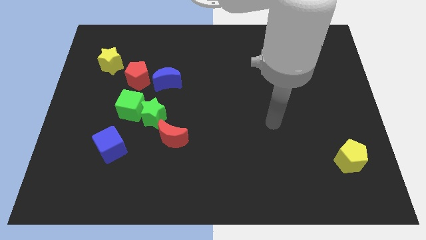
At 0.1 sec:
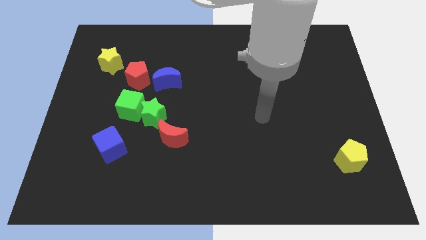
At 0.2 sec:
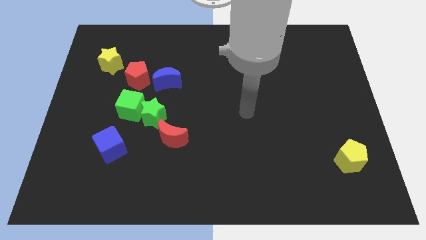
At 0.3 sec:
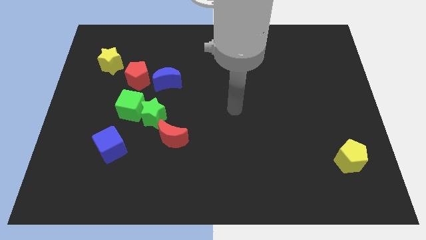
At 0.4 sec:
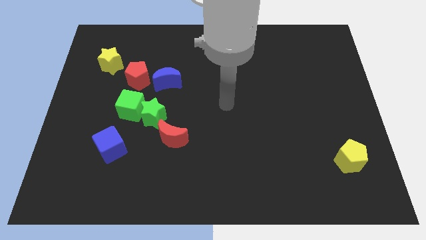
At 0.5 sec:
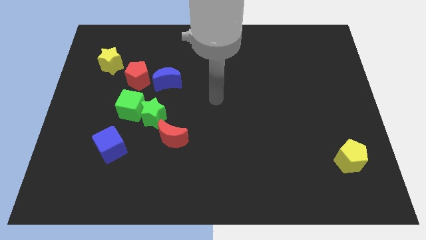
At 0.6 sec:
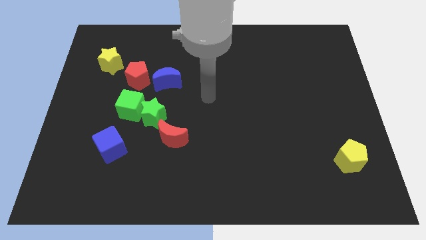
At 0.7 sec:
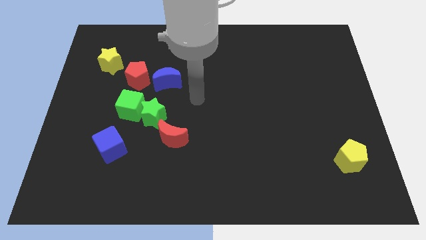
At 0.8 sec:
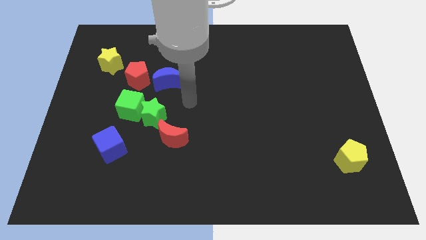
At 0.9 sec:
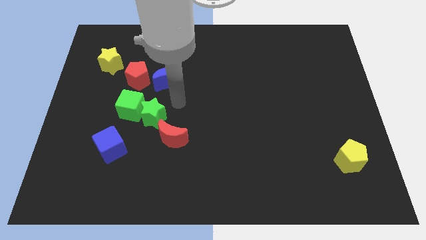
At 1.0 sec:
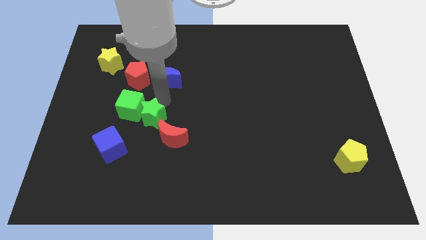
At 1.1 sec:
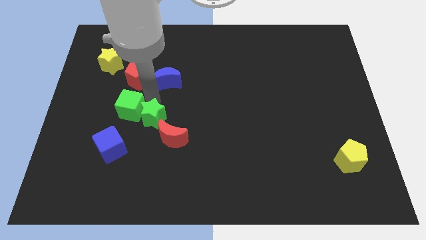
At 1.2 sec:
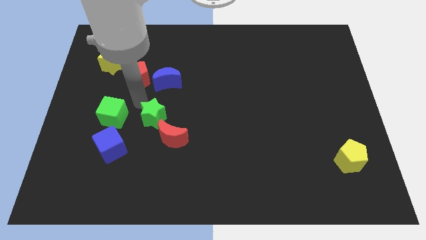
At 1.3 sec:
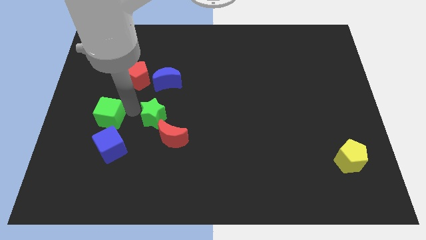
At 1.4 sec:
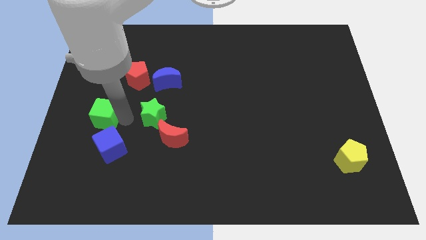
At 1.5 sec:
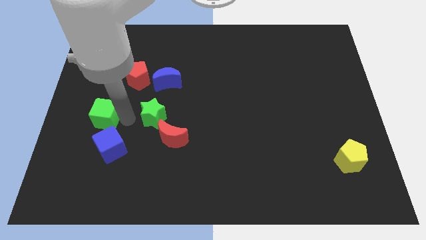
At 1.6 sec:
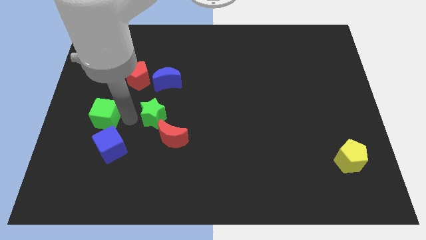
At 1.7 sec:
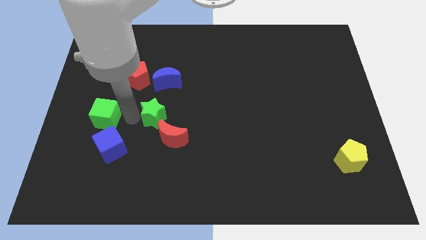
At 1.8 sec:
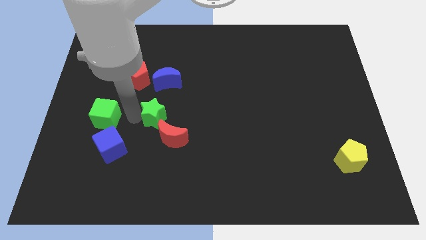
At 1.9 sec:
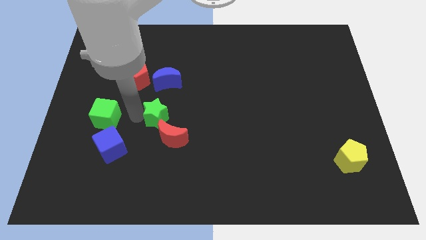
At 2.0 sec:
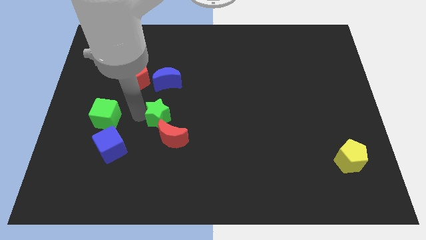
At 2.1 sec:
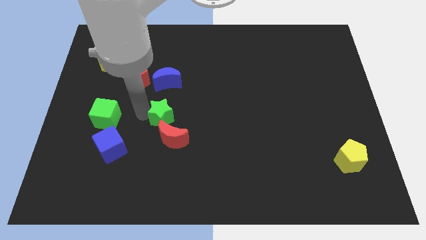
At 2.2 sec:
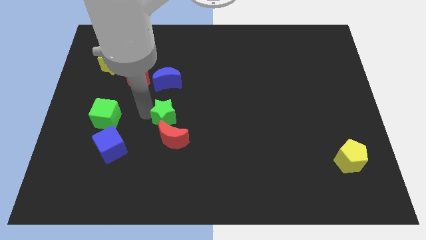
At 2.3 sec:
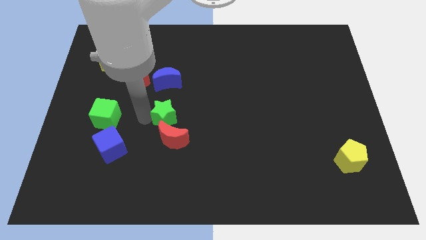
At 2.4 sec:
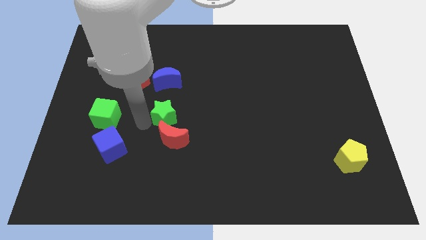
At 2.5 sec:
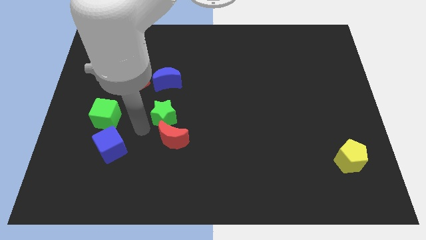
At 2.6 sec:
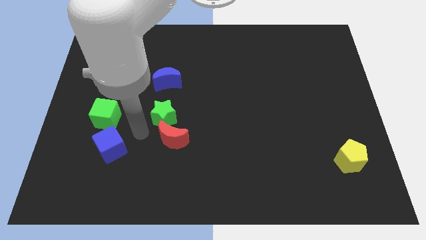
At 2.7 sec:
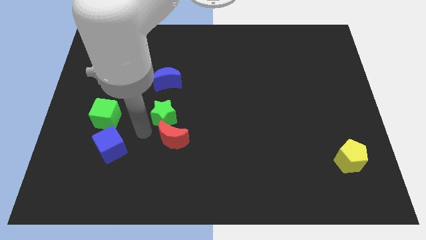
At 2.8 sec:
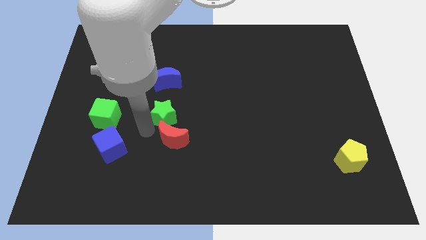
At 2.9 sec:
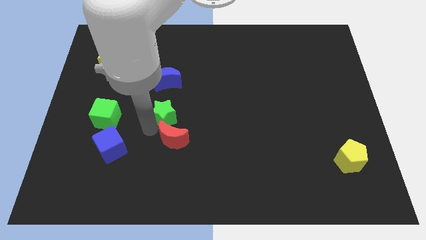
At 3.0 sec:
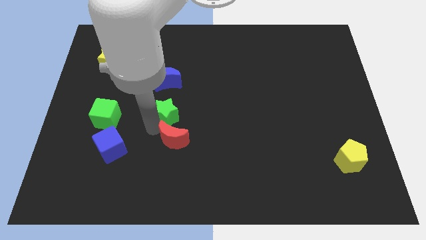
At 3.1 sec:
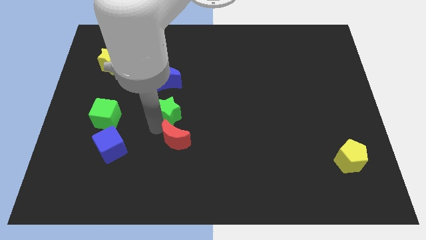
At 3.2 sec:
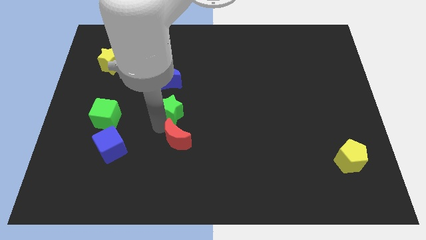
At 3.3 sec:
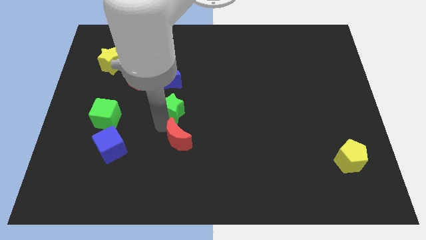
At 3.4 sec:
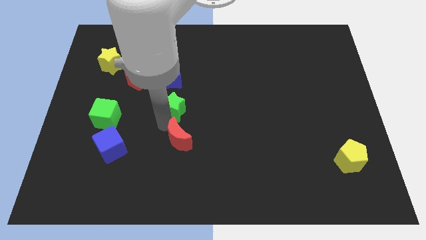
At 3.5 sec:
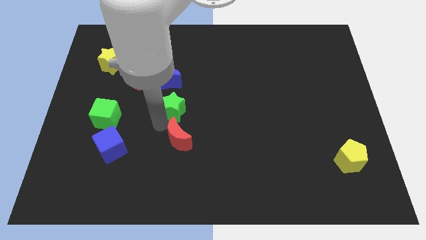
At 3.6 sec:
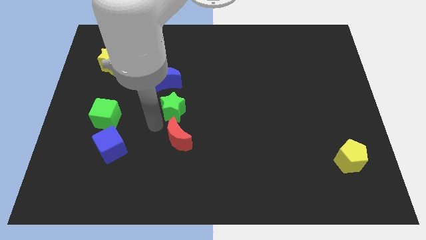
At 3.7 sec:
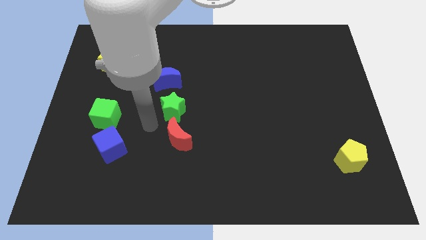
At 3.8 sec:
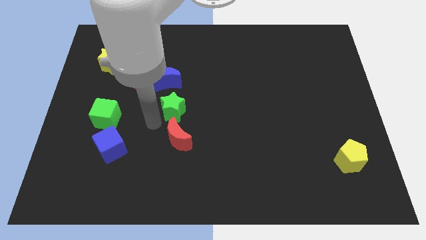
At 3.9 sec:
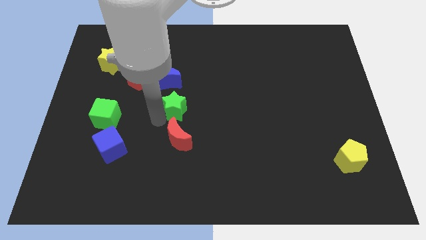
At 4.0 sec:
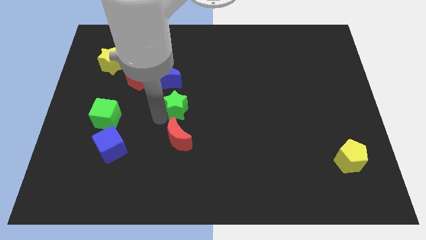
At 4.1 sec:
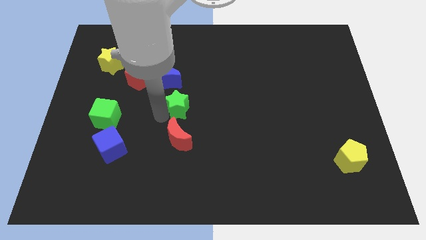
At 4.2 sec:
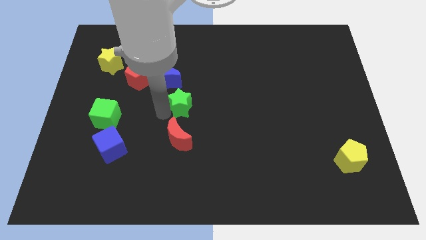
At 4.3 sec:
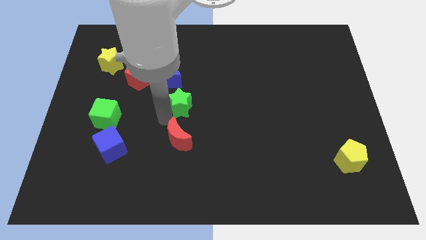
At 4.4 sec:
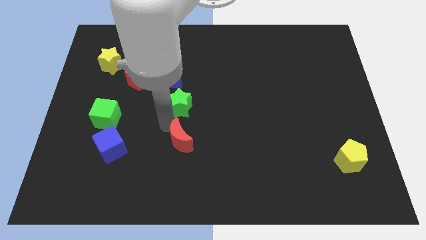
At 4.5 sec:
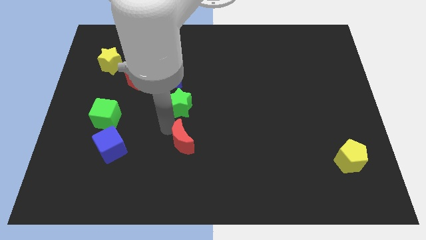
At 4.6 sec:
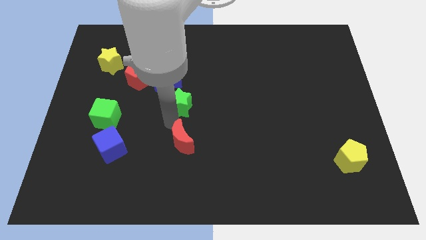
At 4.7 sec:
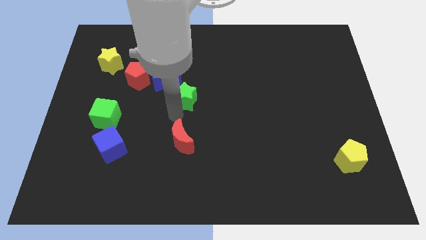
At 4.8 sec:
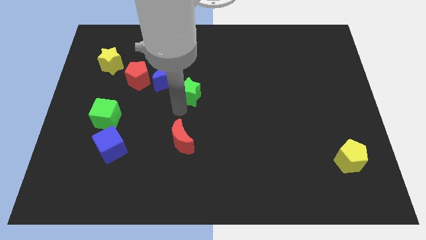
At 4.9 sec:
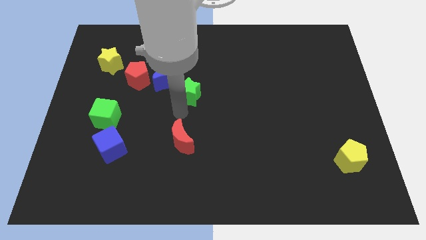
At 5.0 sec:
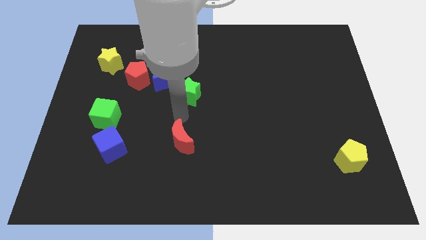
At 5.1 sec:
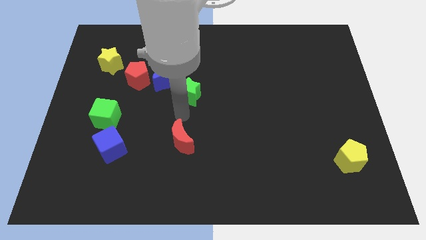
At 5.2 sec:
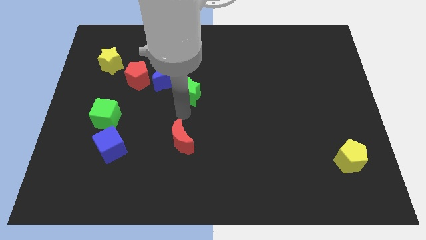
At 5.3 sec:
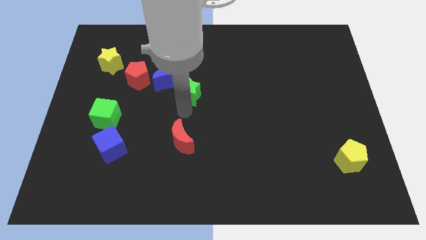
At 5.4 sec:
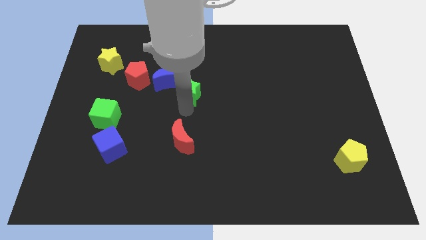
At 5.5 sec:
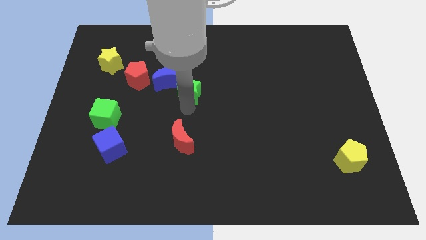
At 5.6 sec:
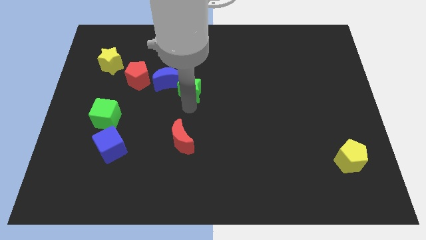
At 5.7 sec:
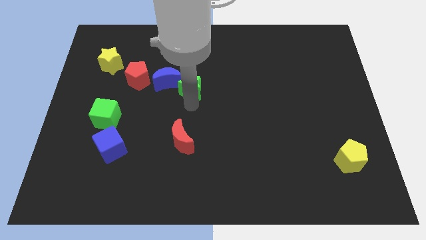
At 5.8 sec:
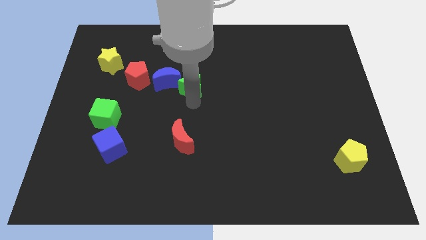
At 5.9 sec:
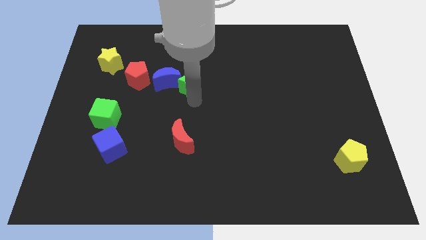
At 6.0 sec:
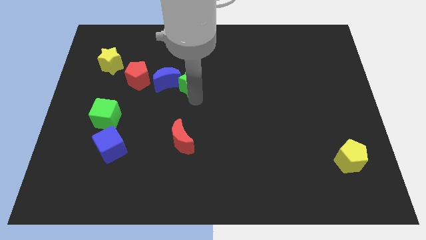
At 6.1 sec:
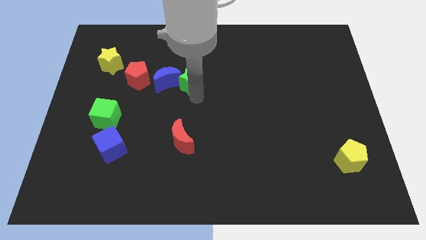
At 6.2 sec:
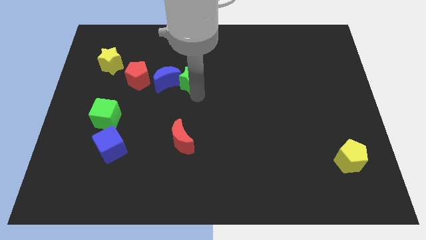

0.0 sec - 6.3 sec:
move the green star slightly up

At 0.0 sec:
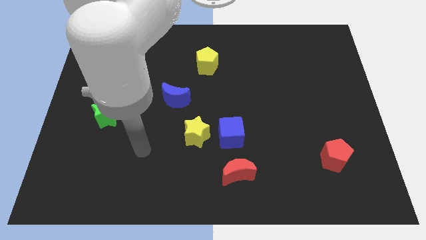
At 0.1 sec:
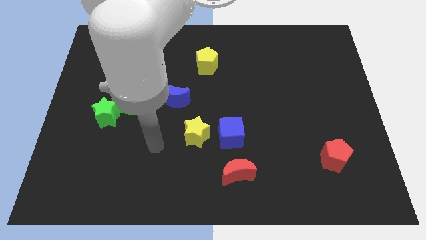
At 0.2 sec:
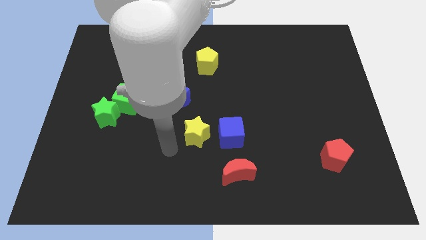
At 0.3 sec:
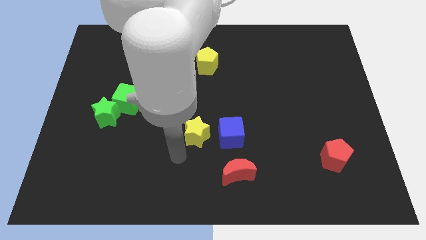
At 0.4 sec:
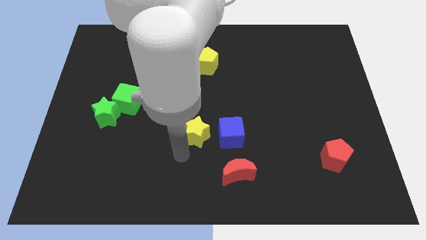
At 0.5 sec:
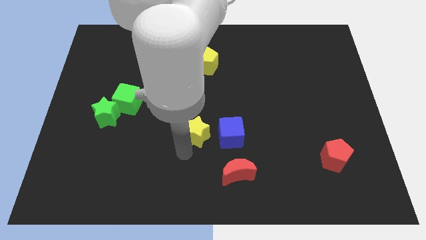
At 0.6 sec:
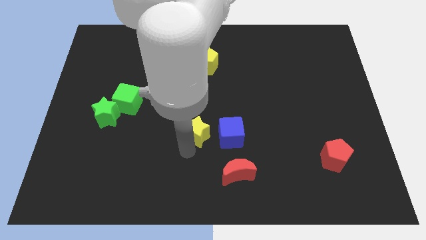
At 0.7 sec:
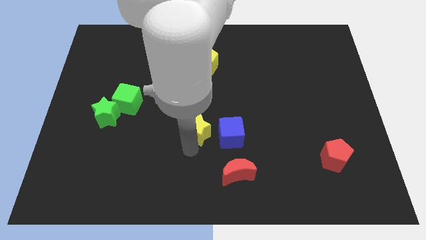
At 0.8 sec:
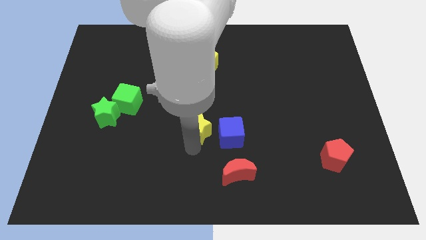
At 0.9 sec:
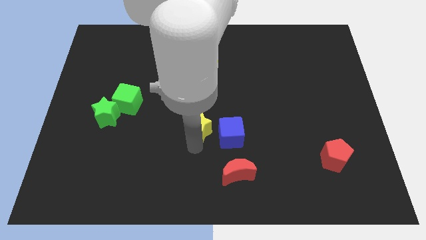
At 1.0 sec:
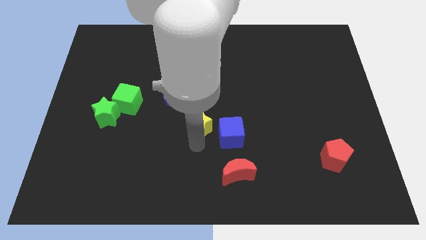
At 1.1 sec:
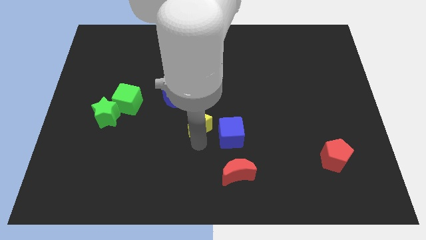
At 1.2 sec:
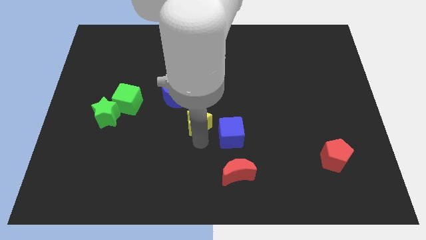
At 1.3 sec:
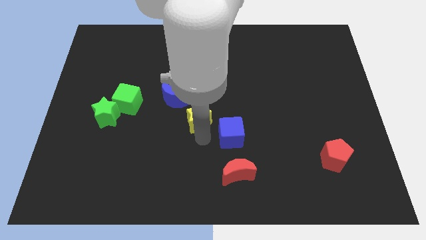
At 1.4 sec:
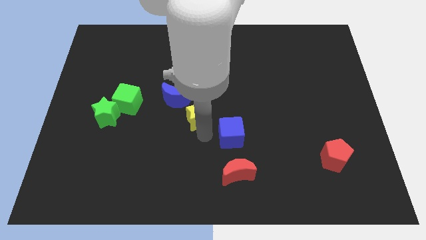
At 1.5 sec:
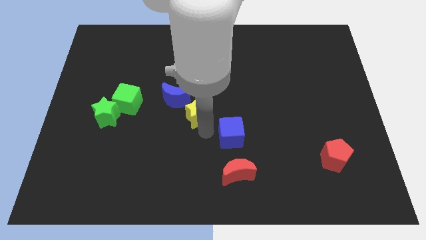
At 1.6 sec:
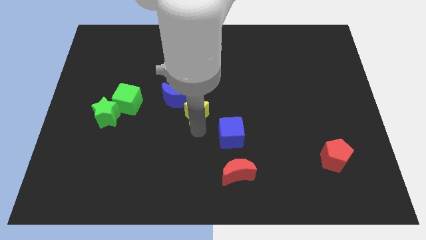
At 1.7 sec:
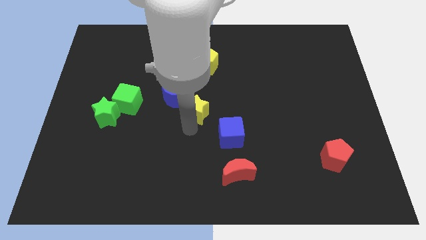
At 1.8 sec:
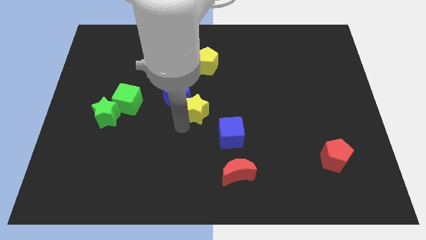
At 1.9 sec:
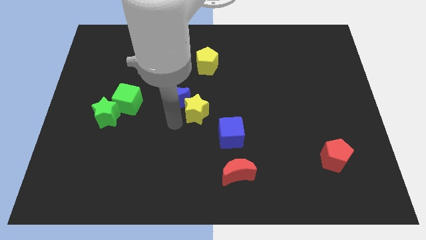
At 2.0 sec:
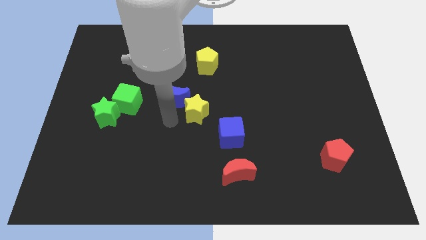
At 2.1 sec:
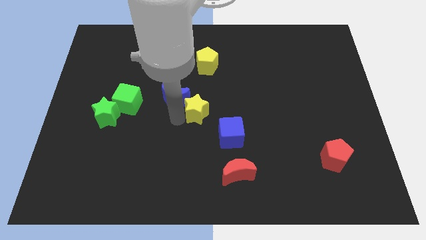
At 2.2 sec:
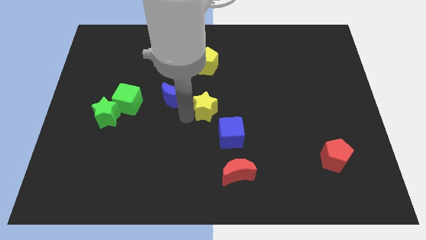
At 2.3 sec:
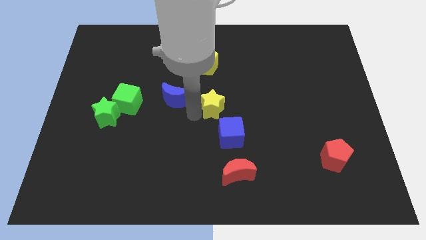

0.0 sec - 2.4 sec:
push the yellow star upwards and then right a bit
